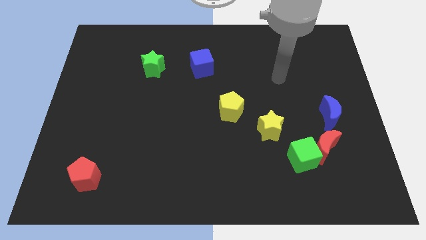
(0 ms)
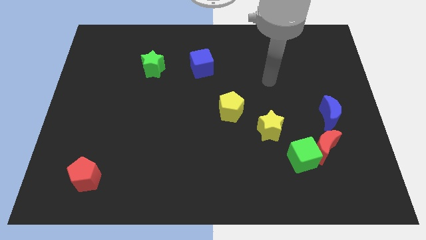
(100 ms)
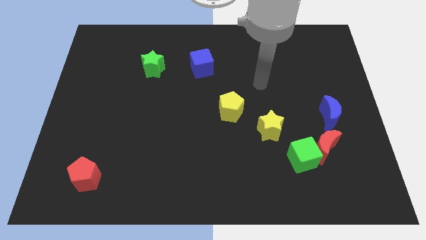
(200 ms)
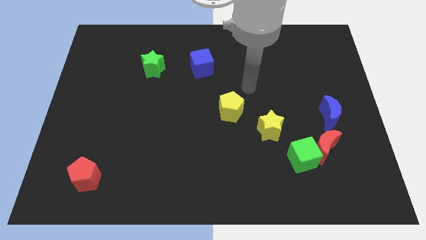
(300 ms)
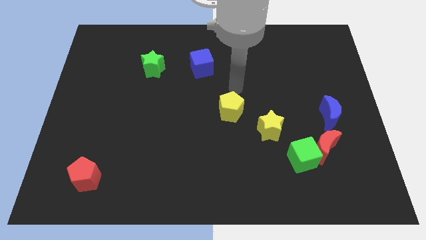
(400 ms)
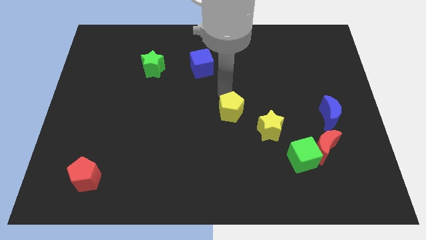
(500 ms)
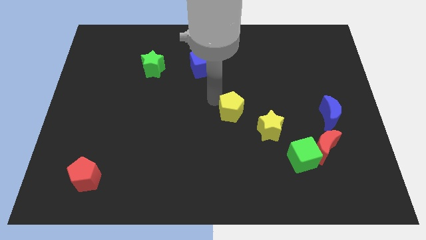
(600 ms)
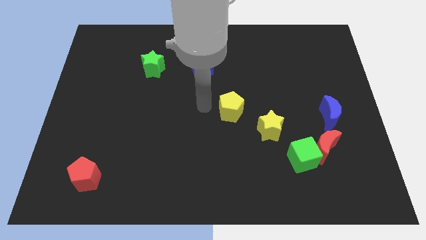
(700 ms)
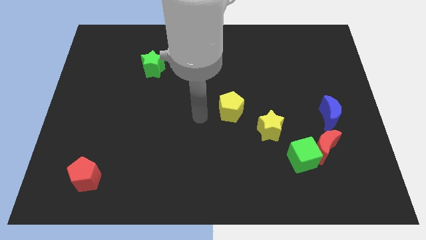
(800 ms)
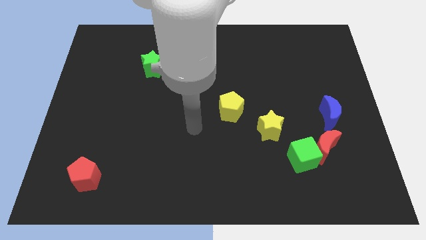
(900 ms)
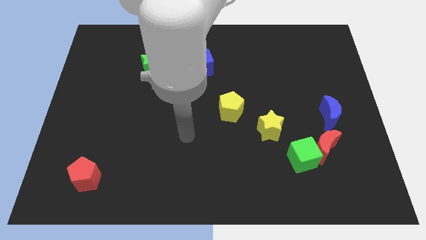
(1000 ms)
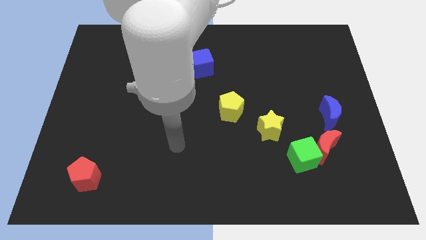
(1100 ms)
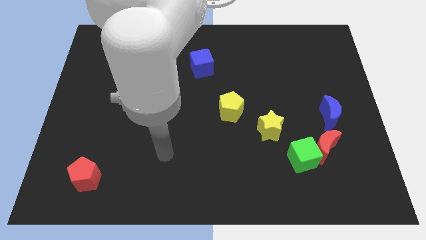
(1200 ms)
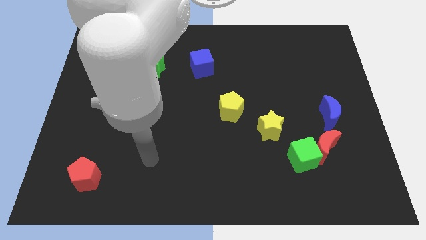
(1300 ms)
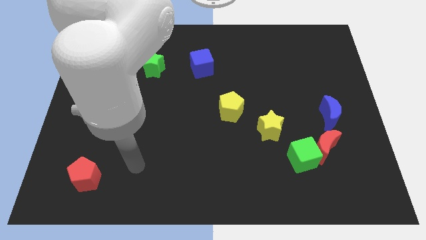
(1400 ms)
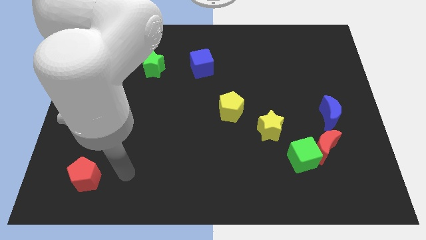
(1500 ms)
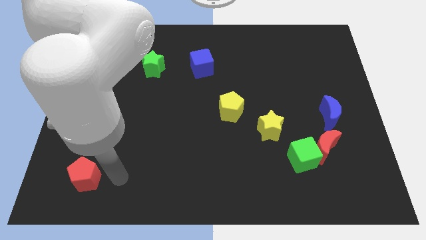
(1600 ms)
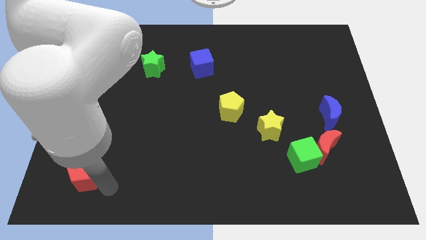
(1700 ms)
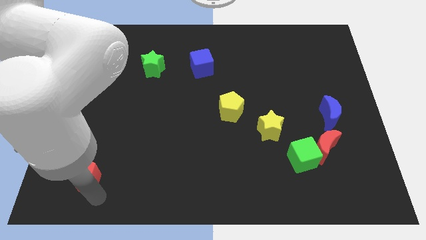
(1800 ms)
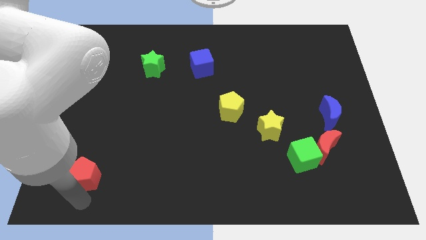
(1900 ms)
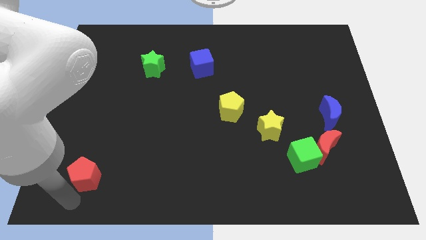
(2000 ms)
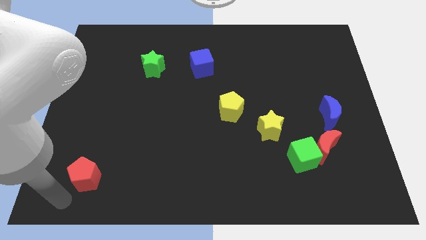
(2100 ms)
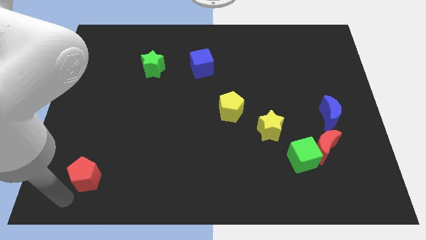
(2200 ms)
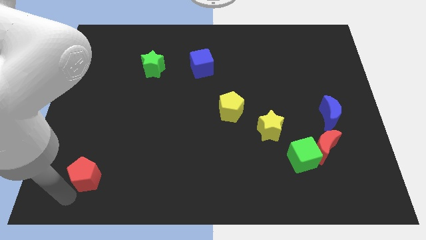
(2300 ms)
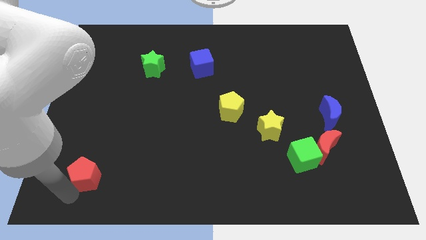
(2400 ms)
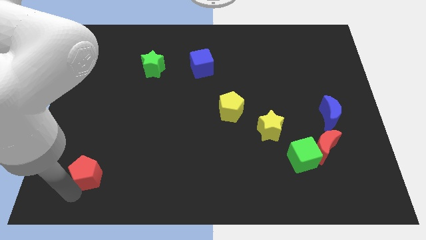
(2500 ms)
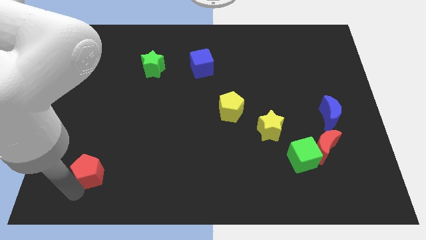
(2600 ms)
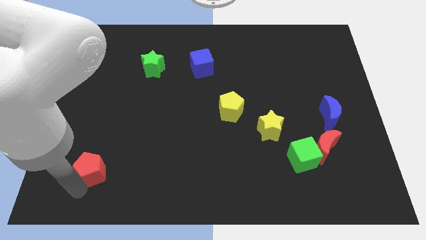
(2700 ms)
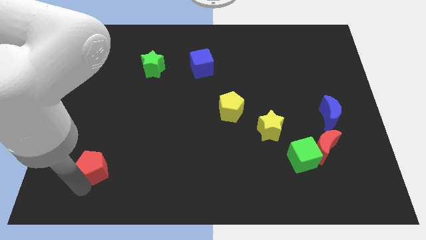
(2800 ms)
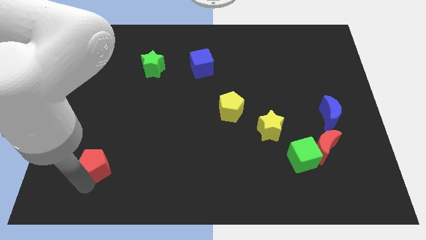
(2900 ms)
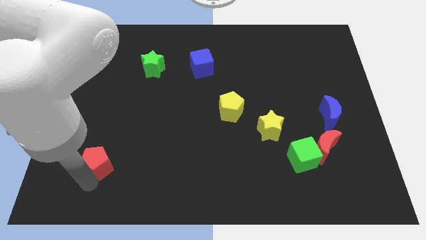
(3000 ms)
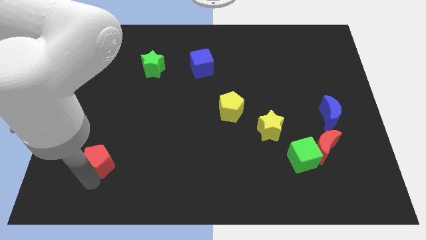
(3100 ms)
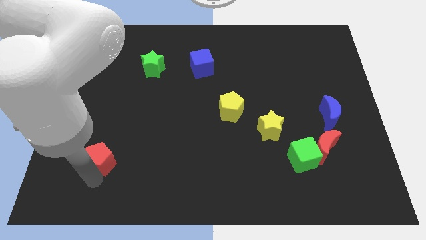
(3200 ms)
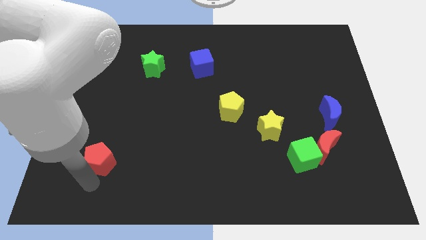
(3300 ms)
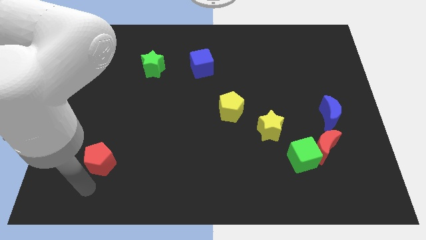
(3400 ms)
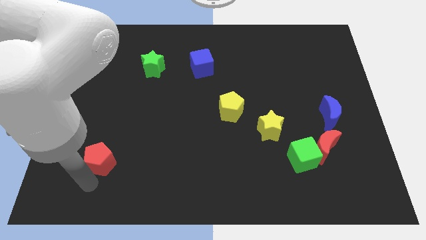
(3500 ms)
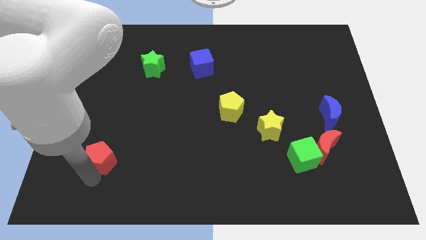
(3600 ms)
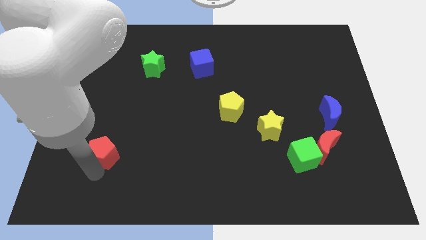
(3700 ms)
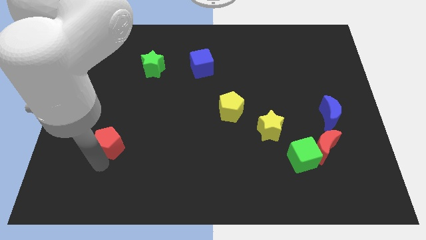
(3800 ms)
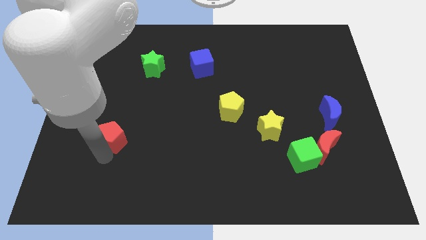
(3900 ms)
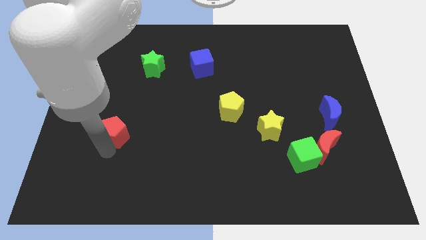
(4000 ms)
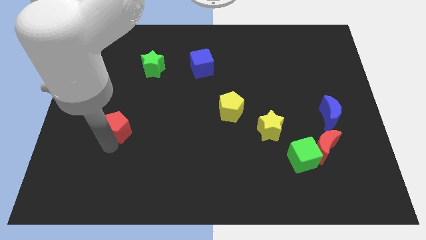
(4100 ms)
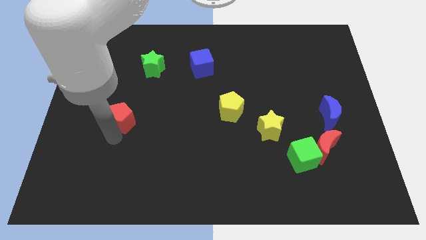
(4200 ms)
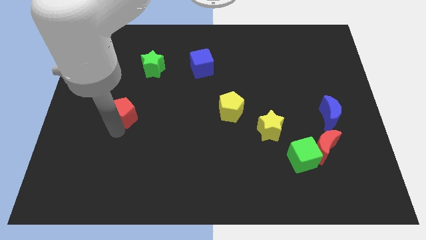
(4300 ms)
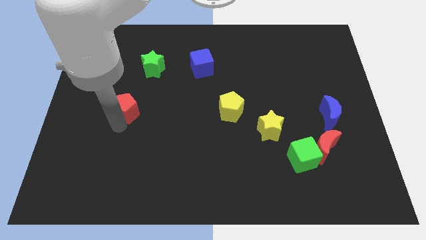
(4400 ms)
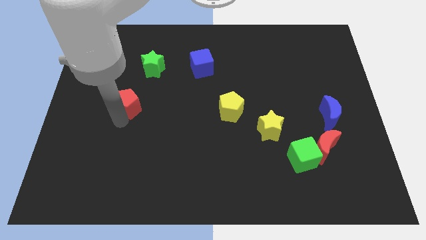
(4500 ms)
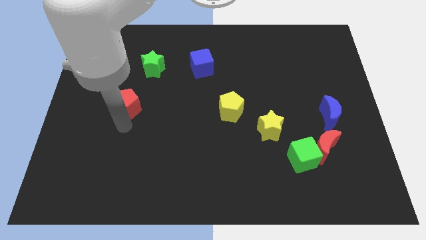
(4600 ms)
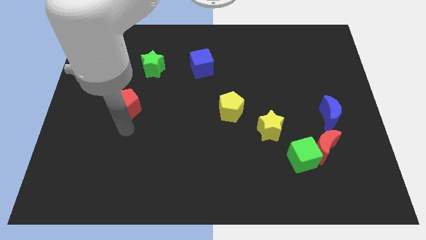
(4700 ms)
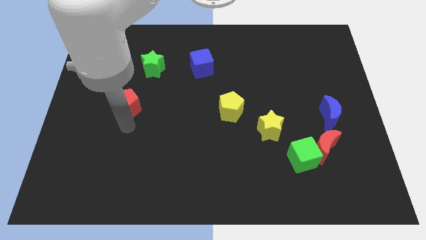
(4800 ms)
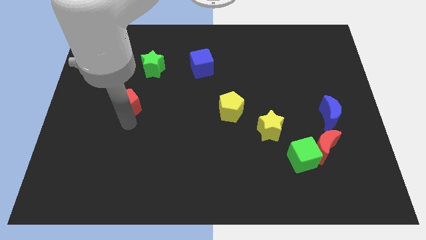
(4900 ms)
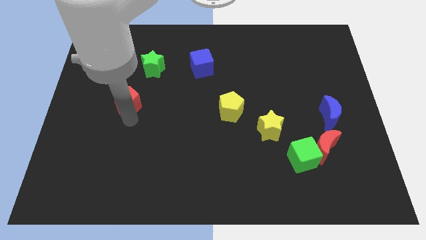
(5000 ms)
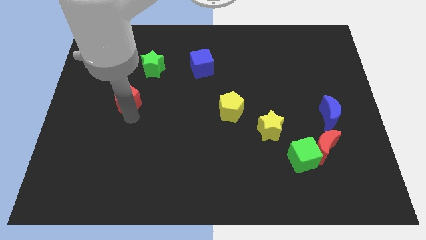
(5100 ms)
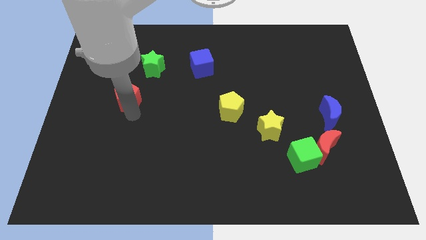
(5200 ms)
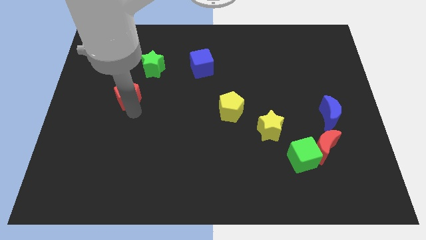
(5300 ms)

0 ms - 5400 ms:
slide the red pentagon to the bottom left of the green star

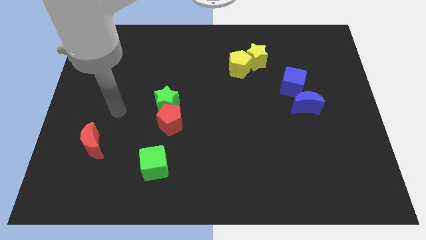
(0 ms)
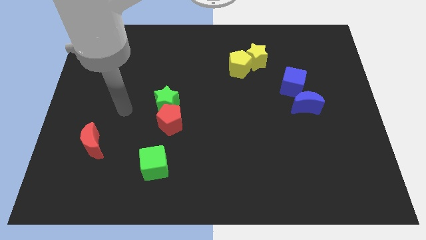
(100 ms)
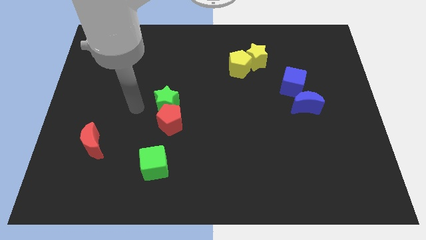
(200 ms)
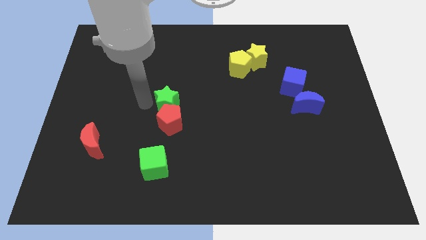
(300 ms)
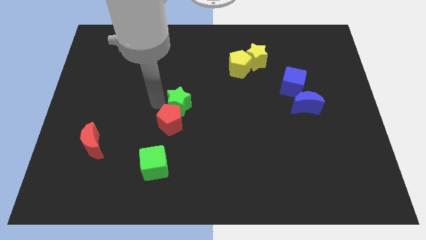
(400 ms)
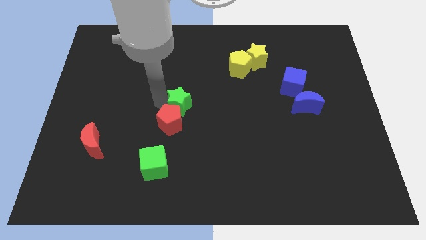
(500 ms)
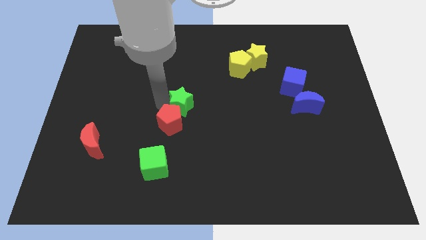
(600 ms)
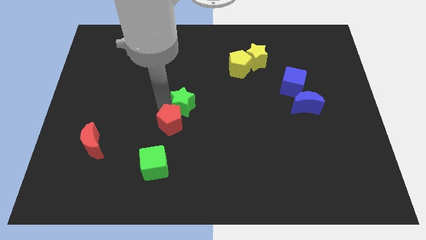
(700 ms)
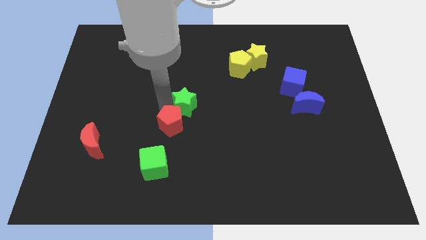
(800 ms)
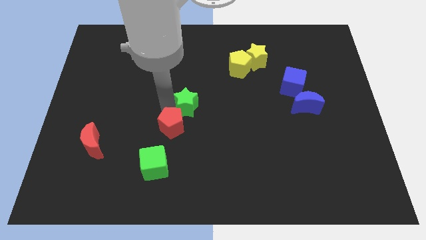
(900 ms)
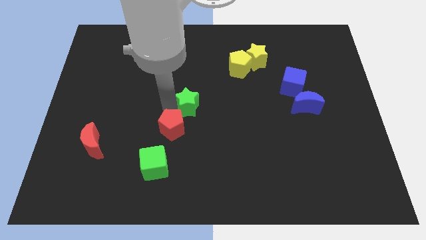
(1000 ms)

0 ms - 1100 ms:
move the red pentagon to the top right of the green cube
